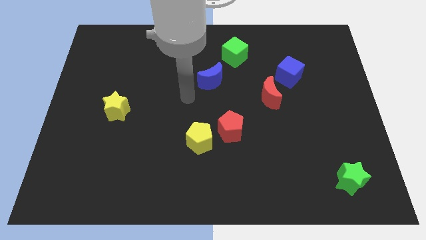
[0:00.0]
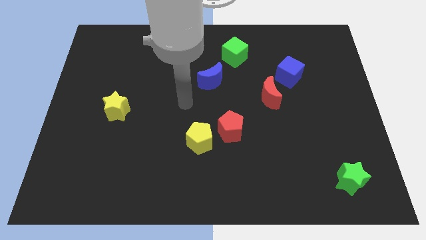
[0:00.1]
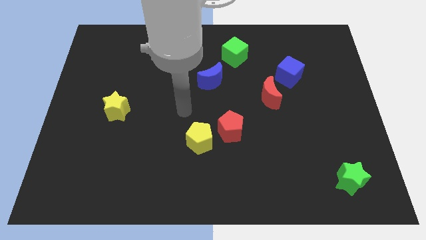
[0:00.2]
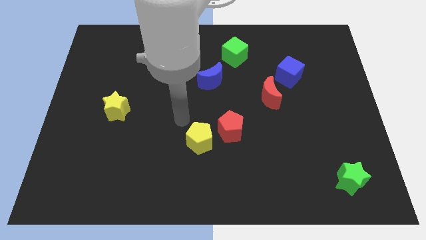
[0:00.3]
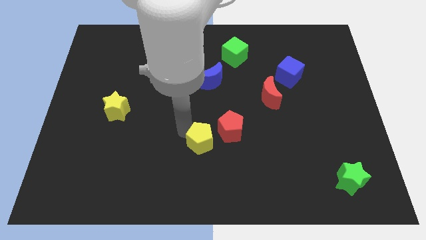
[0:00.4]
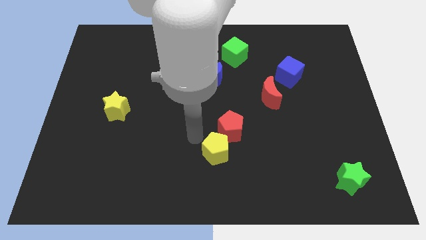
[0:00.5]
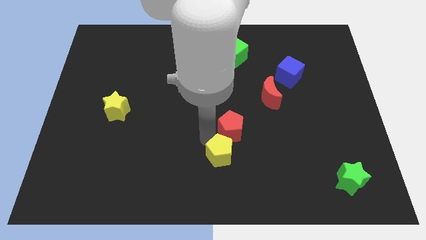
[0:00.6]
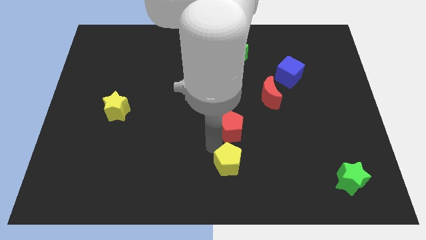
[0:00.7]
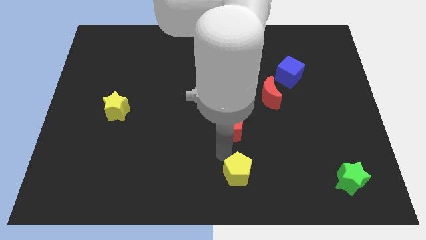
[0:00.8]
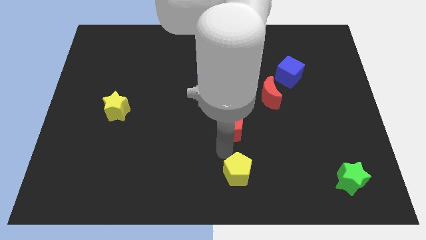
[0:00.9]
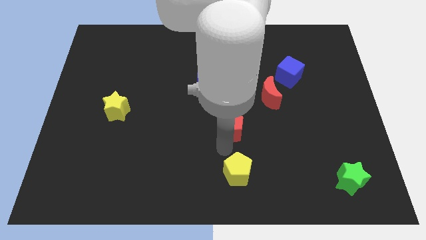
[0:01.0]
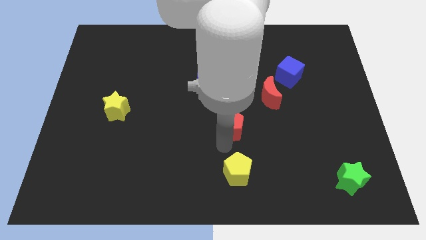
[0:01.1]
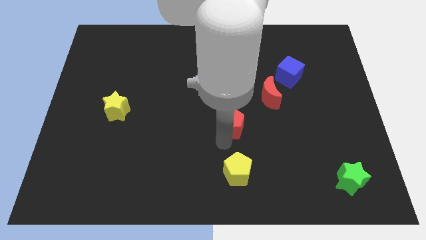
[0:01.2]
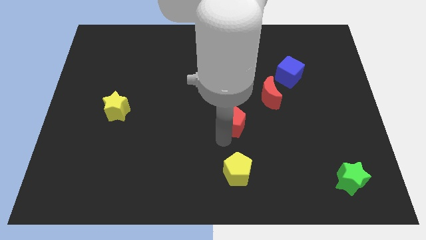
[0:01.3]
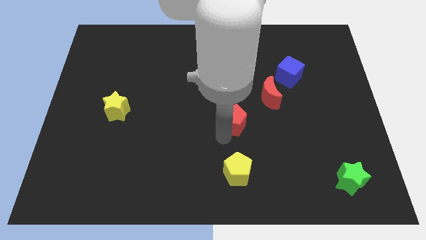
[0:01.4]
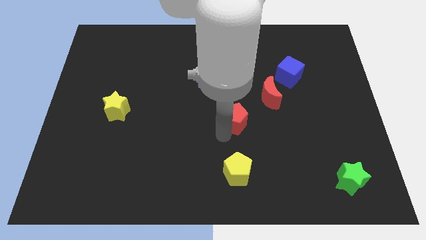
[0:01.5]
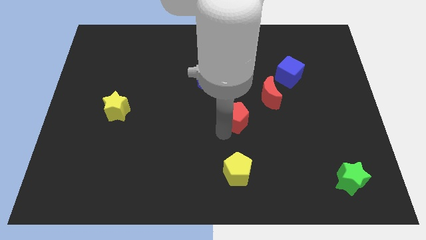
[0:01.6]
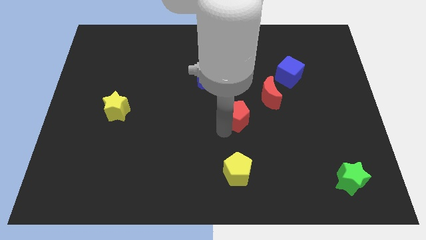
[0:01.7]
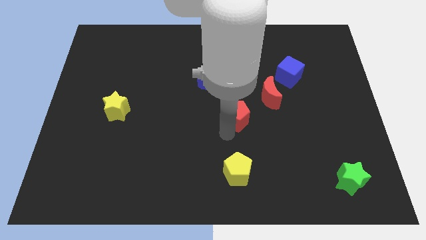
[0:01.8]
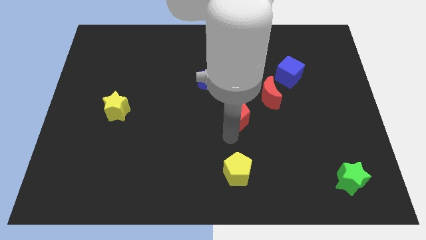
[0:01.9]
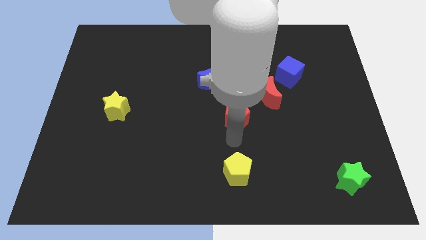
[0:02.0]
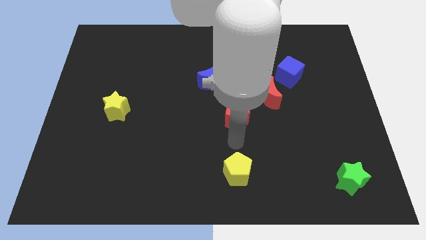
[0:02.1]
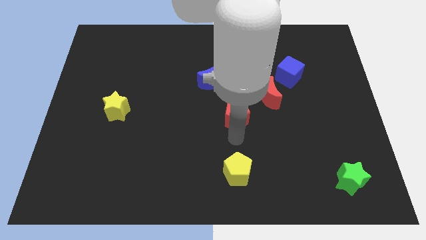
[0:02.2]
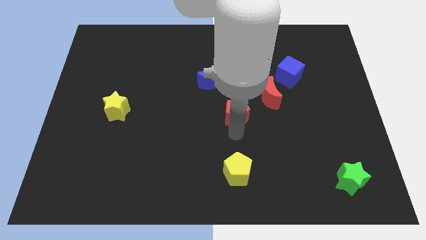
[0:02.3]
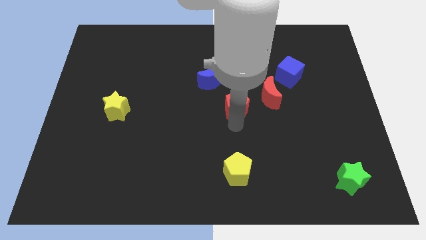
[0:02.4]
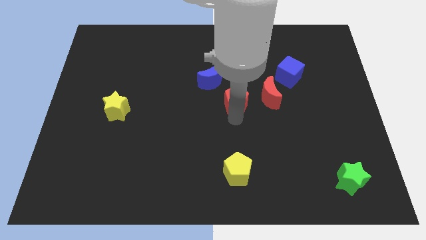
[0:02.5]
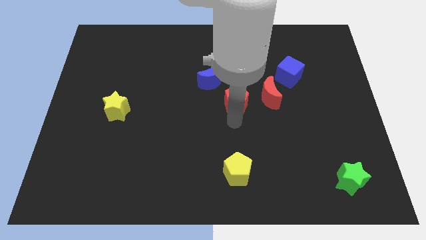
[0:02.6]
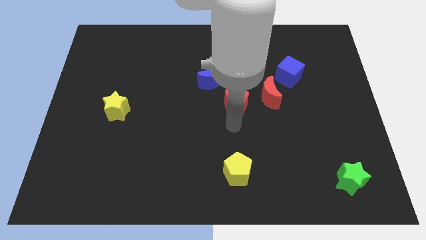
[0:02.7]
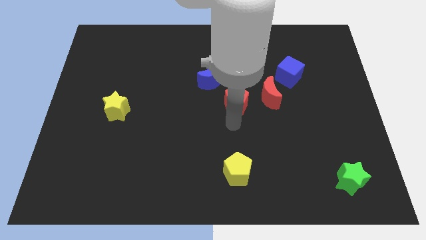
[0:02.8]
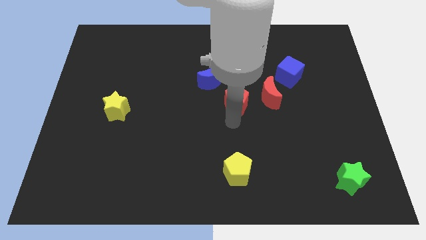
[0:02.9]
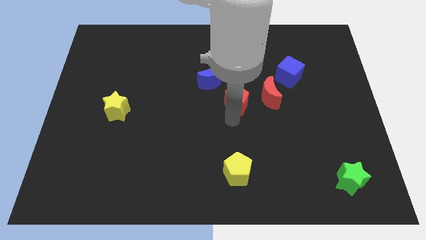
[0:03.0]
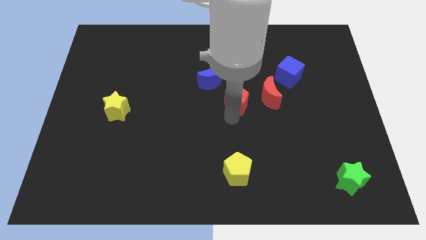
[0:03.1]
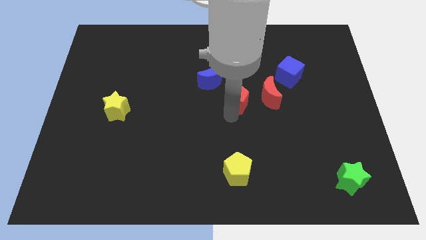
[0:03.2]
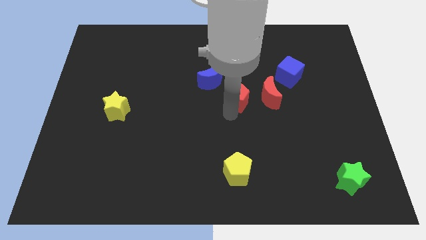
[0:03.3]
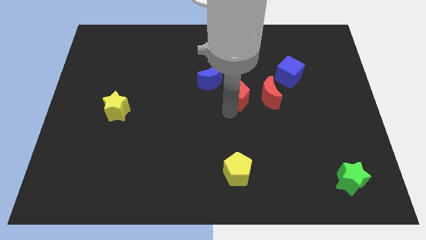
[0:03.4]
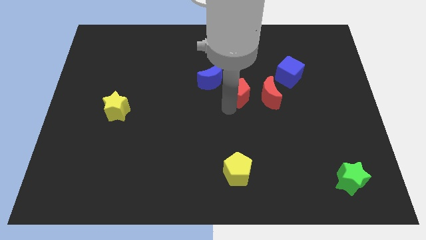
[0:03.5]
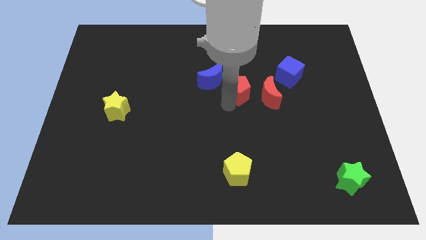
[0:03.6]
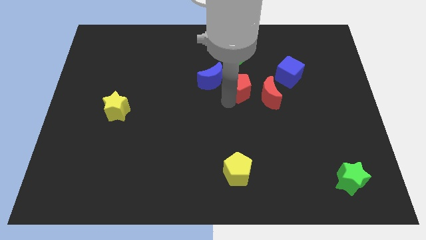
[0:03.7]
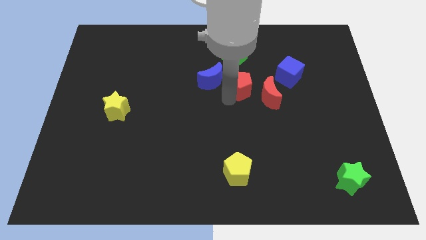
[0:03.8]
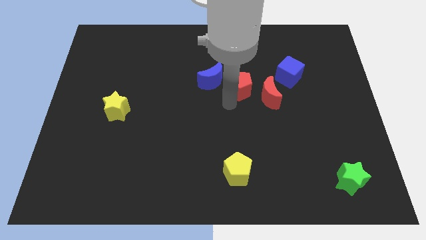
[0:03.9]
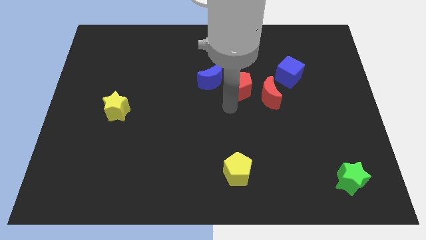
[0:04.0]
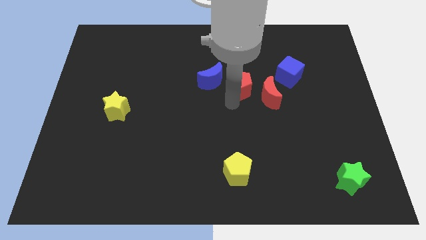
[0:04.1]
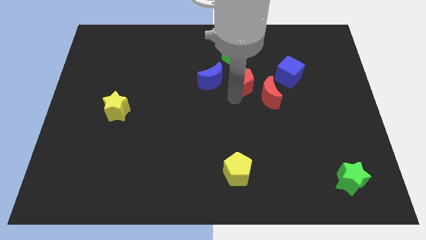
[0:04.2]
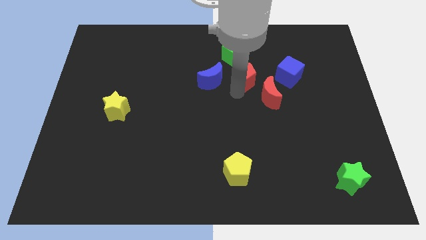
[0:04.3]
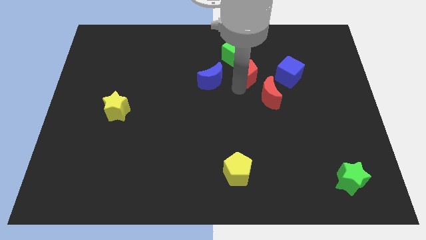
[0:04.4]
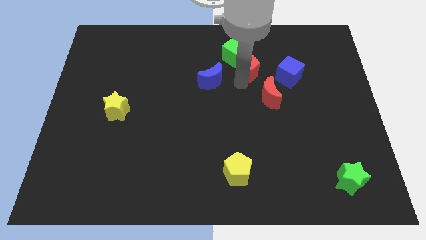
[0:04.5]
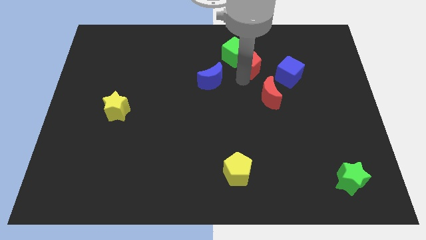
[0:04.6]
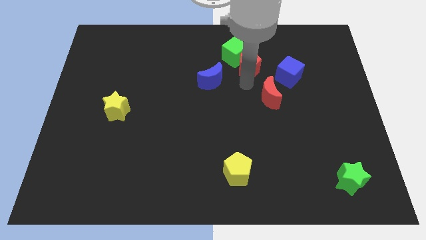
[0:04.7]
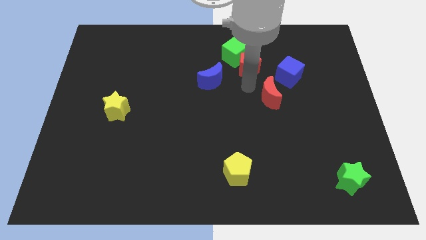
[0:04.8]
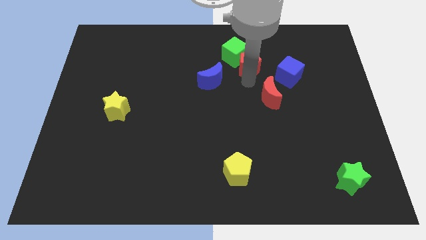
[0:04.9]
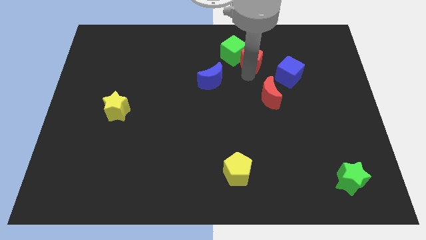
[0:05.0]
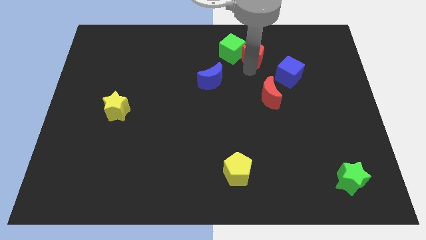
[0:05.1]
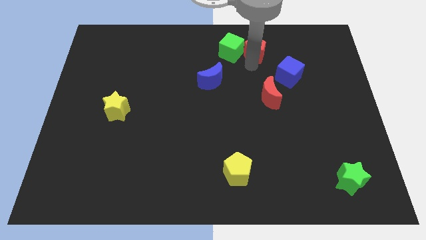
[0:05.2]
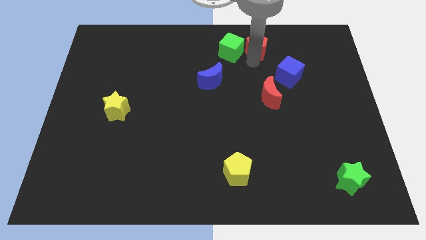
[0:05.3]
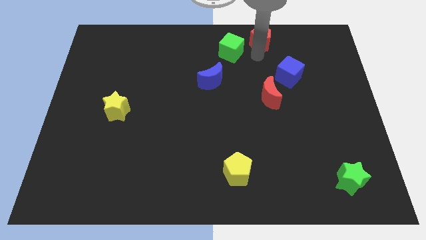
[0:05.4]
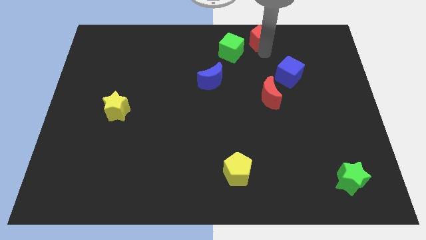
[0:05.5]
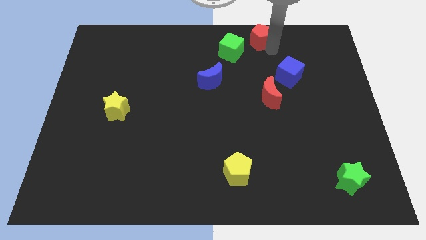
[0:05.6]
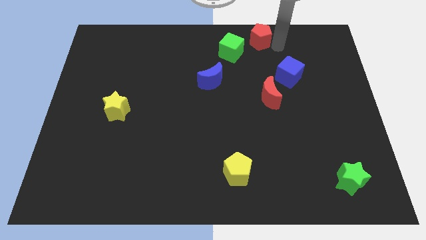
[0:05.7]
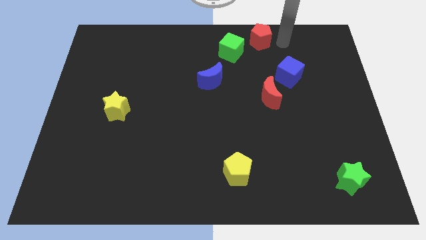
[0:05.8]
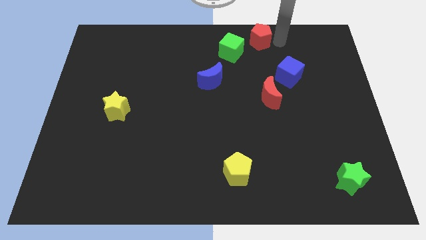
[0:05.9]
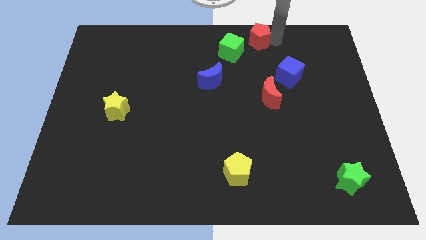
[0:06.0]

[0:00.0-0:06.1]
put the red pentagon to the top

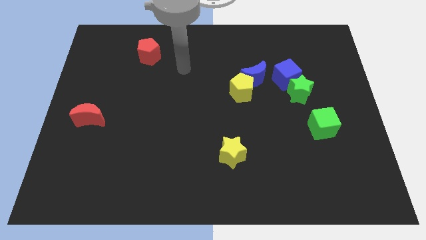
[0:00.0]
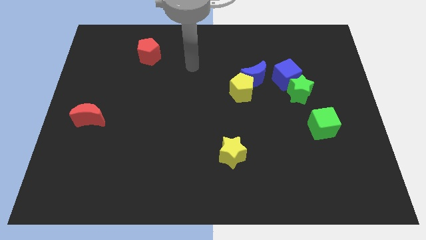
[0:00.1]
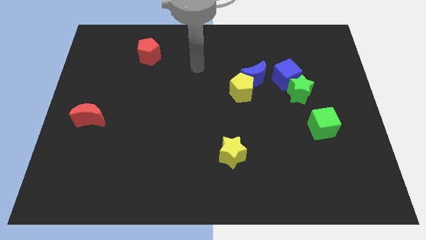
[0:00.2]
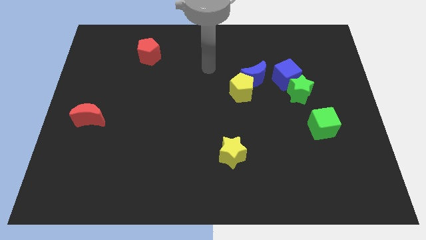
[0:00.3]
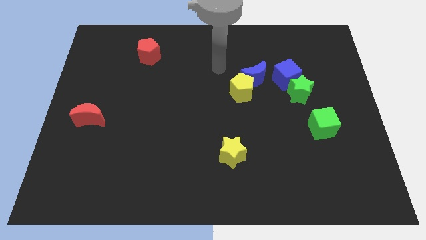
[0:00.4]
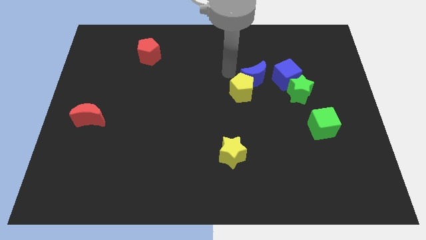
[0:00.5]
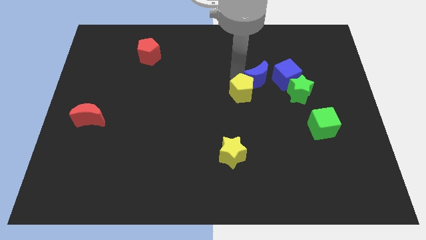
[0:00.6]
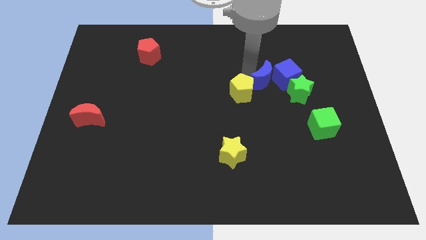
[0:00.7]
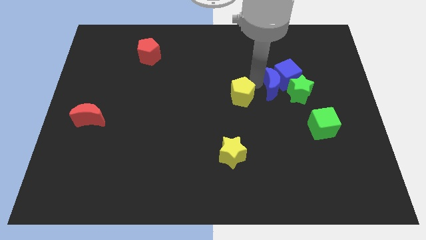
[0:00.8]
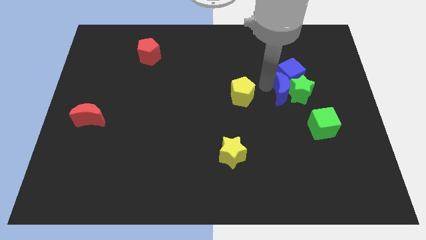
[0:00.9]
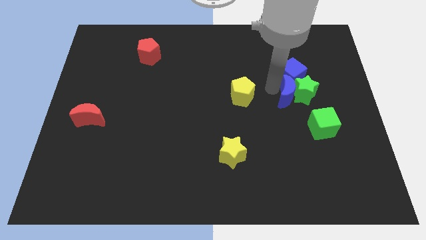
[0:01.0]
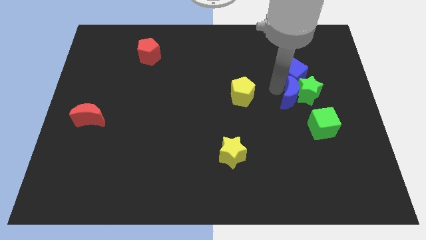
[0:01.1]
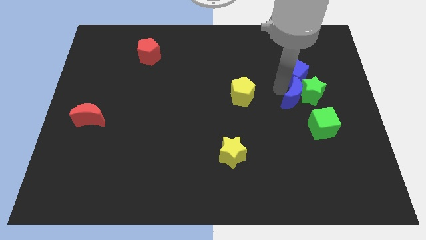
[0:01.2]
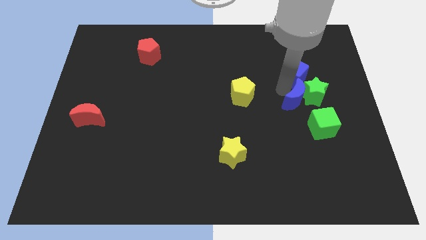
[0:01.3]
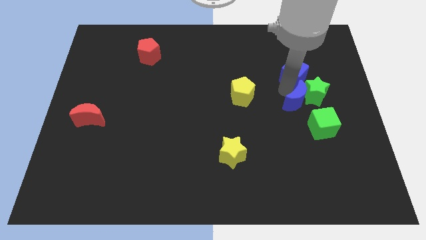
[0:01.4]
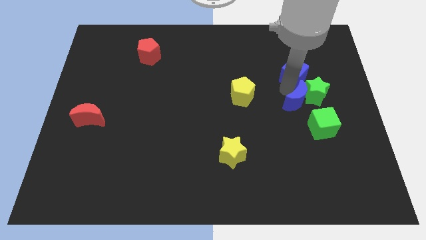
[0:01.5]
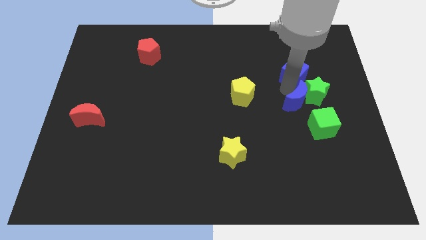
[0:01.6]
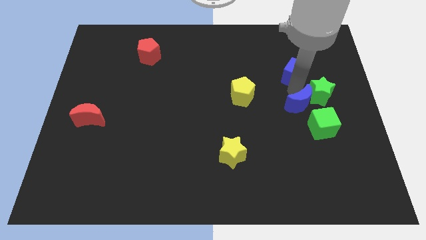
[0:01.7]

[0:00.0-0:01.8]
slide the green star to the center right
